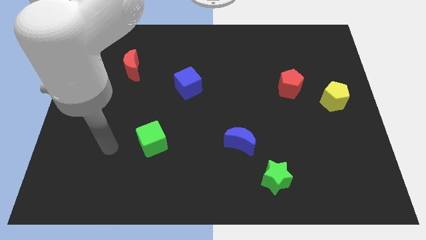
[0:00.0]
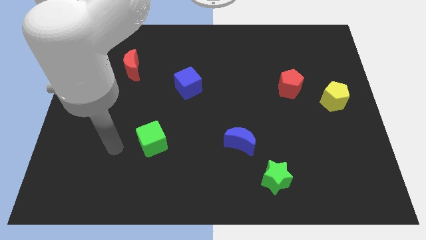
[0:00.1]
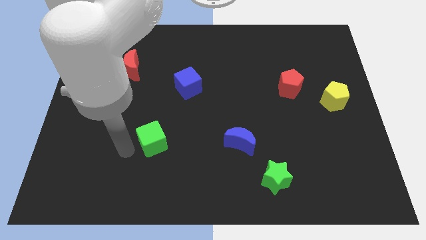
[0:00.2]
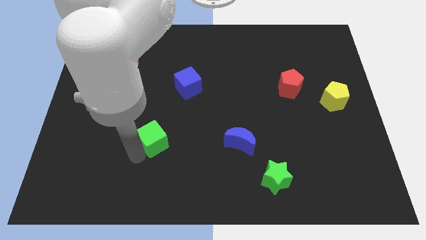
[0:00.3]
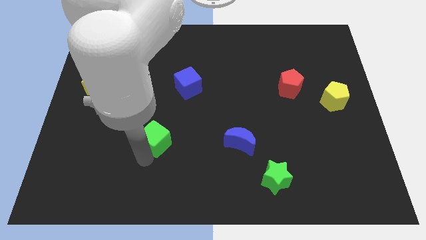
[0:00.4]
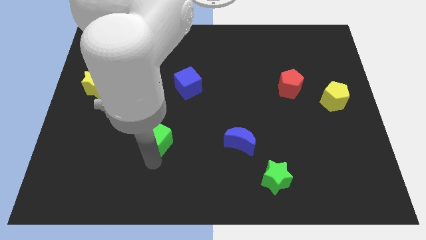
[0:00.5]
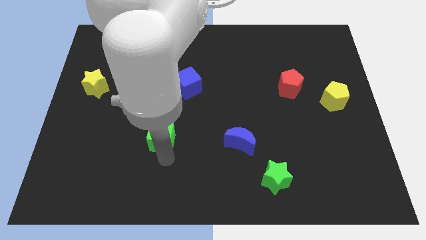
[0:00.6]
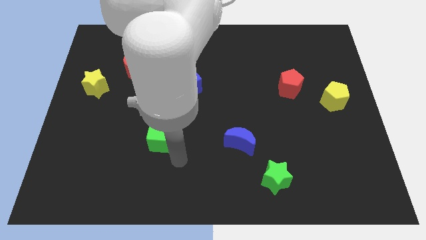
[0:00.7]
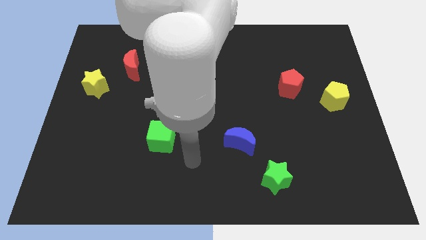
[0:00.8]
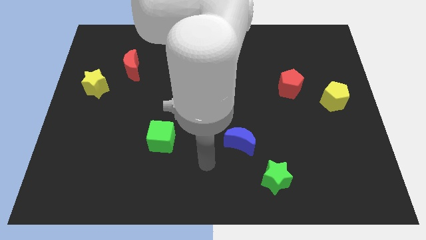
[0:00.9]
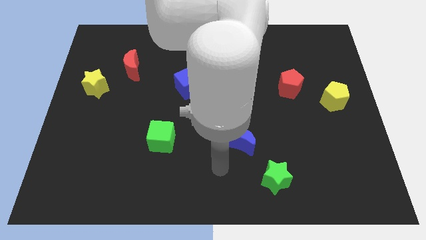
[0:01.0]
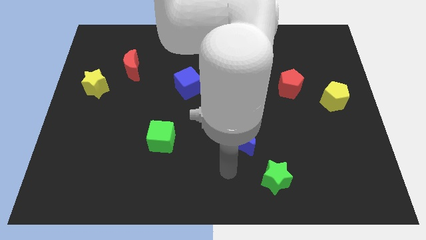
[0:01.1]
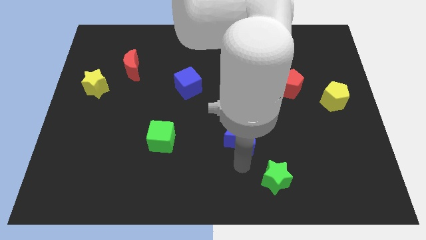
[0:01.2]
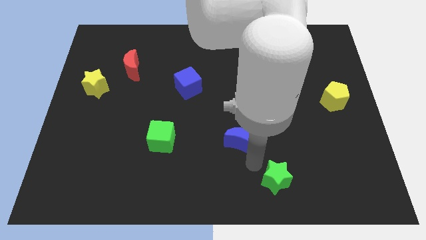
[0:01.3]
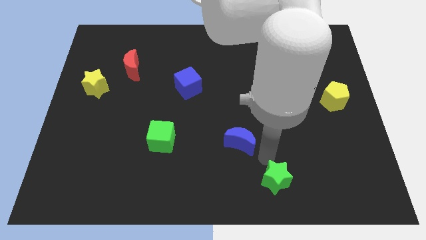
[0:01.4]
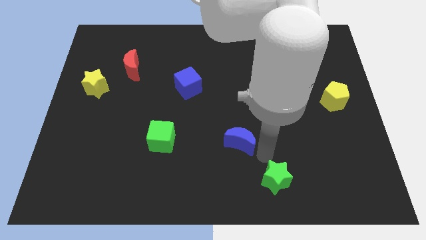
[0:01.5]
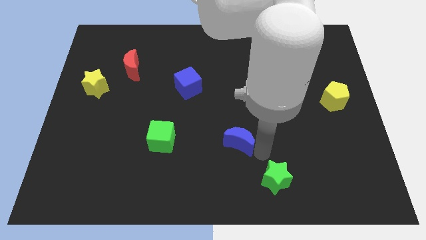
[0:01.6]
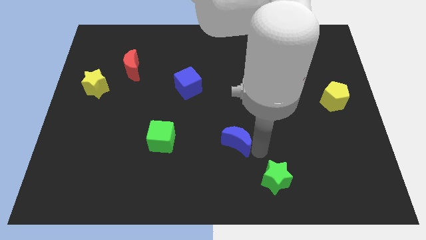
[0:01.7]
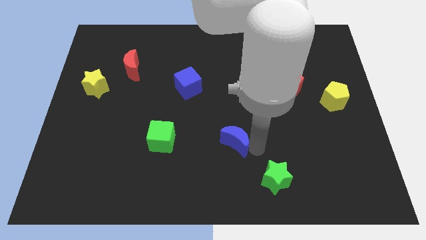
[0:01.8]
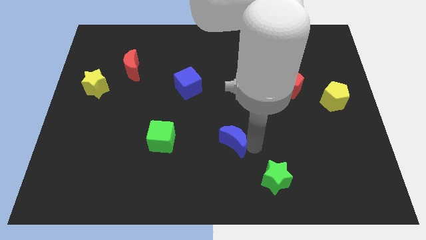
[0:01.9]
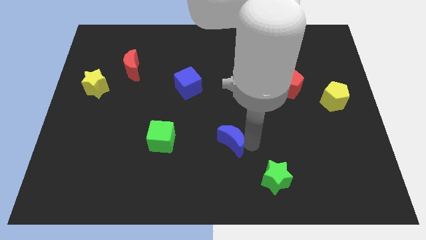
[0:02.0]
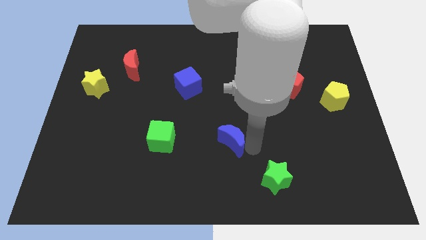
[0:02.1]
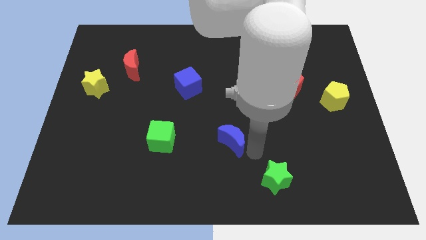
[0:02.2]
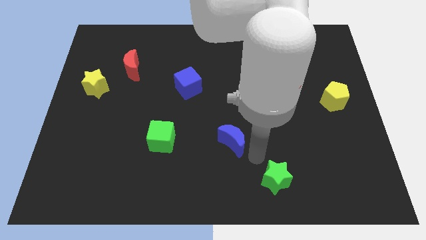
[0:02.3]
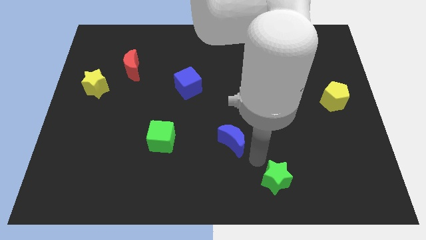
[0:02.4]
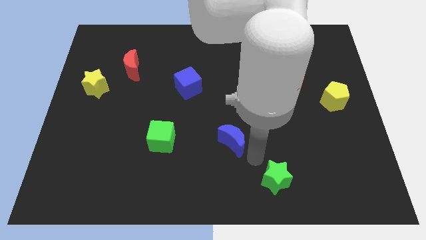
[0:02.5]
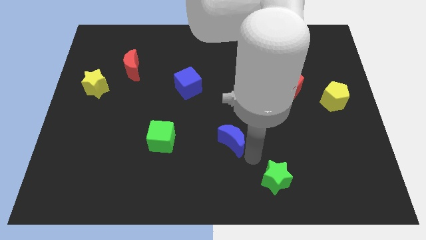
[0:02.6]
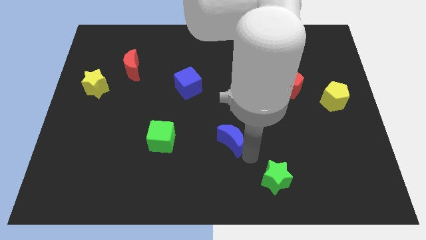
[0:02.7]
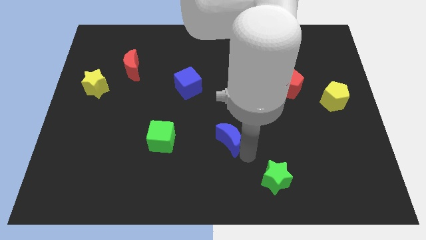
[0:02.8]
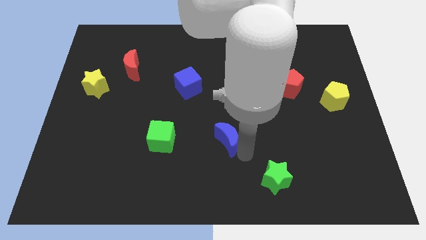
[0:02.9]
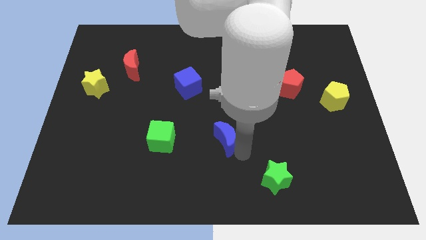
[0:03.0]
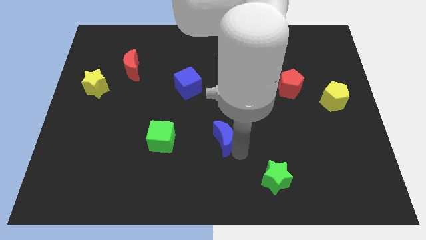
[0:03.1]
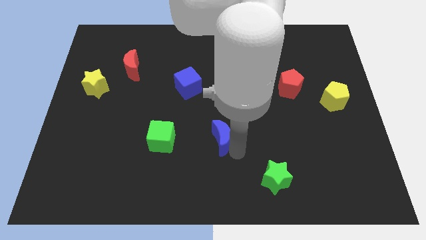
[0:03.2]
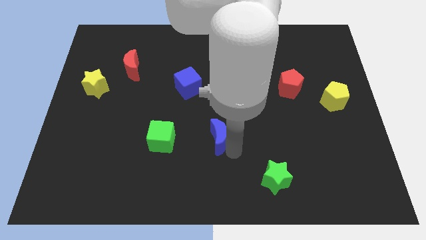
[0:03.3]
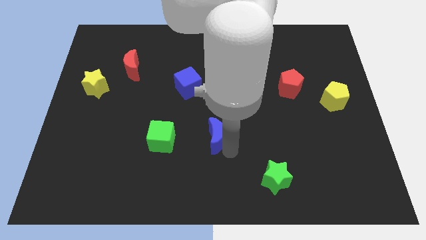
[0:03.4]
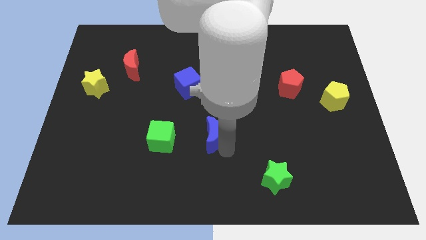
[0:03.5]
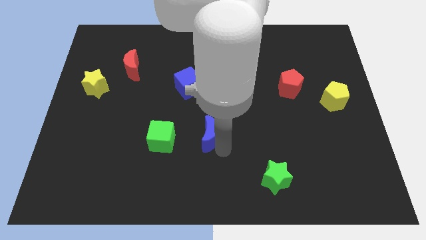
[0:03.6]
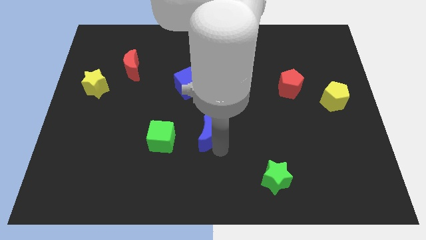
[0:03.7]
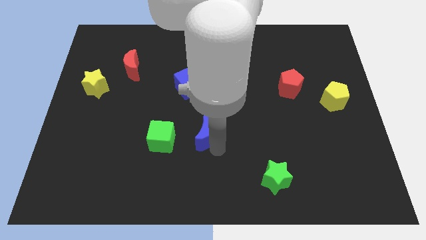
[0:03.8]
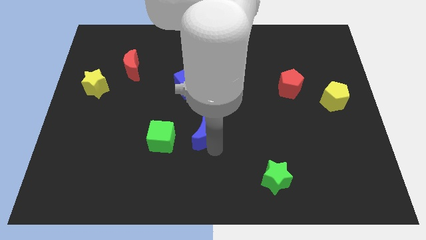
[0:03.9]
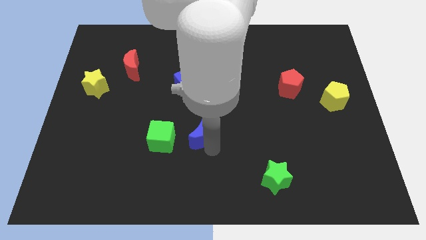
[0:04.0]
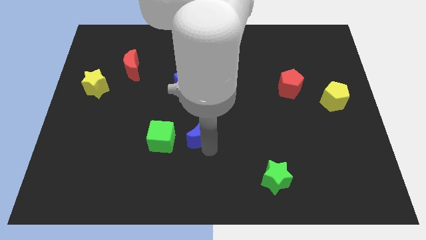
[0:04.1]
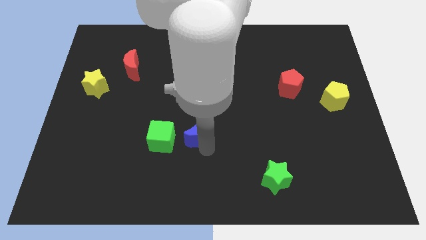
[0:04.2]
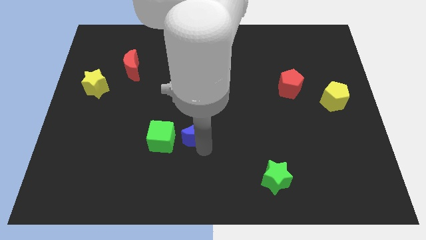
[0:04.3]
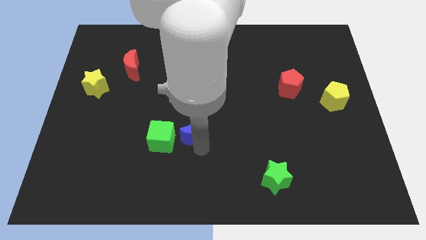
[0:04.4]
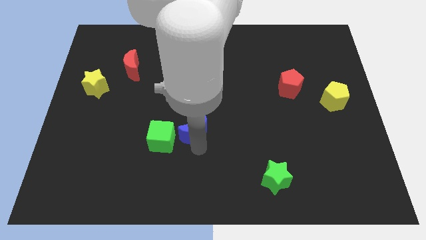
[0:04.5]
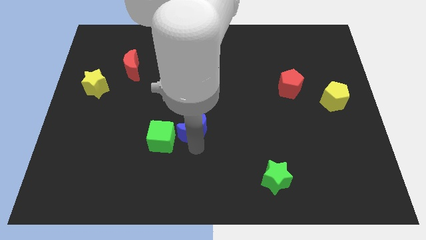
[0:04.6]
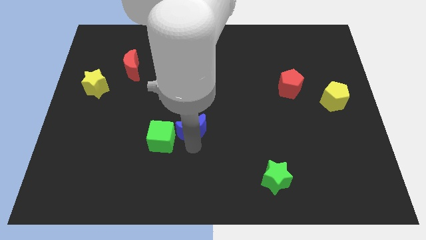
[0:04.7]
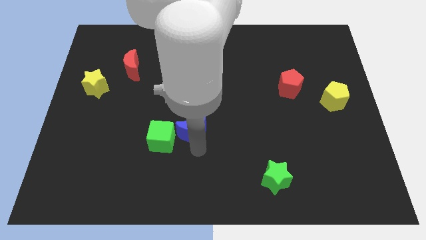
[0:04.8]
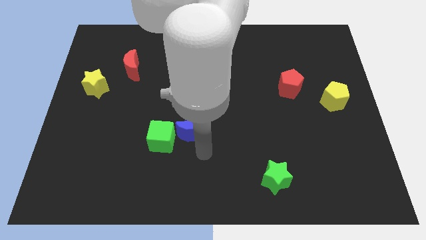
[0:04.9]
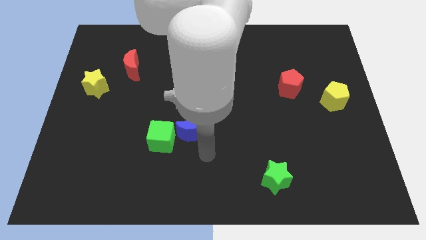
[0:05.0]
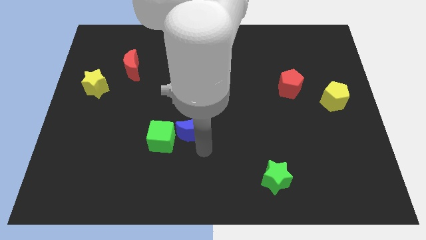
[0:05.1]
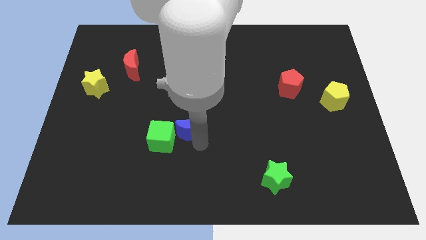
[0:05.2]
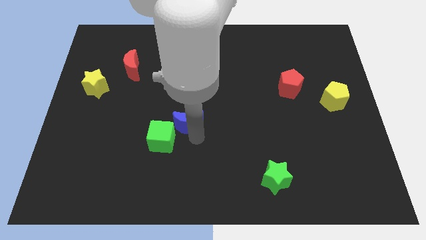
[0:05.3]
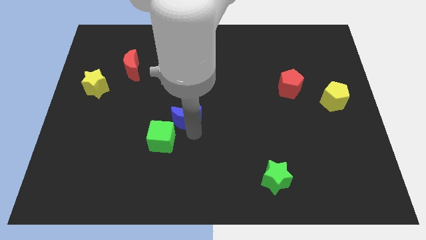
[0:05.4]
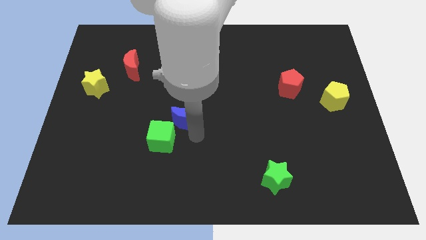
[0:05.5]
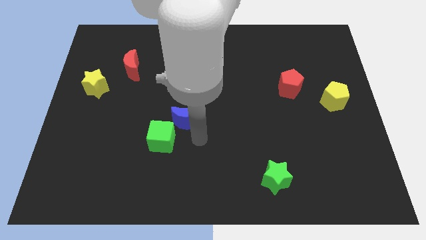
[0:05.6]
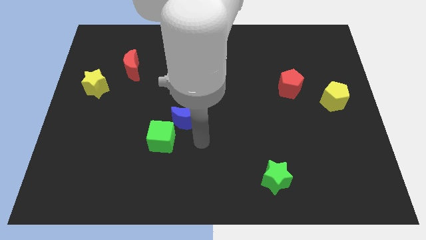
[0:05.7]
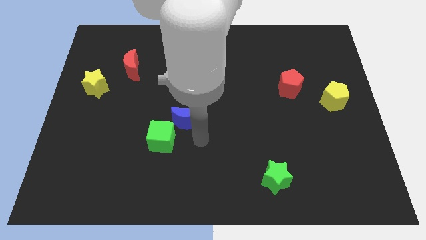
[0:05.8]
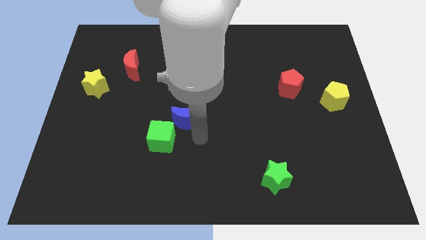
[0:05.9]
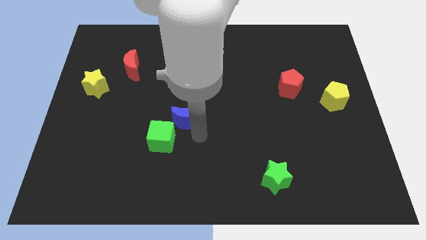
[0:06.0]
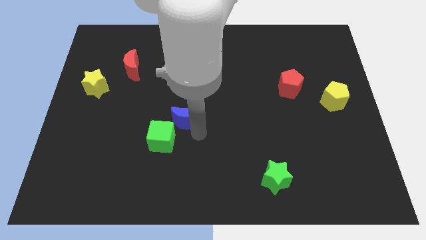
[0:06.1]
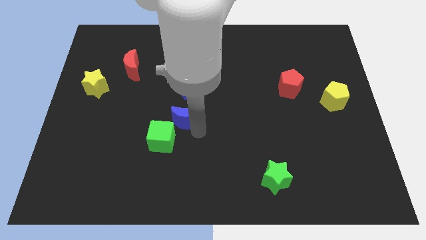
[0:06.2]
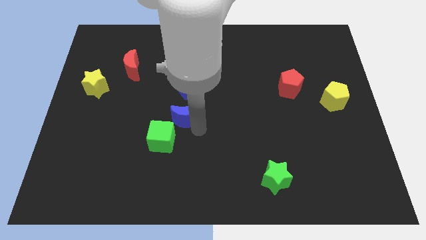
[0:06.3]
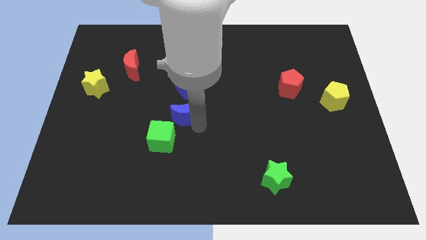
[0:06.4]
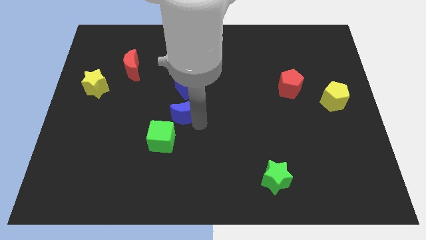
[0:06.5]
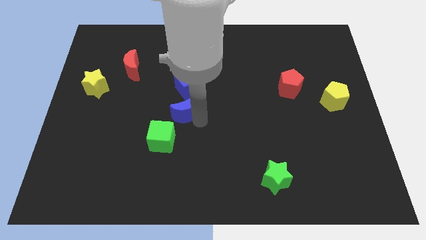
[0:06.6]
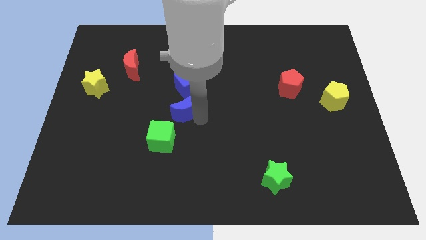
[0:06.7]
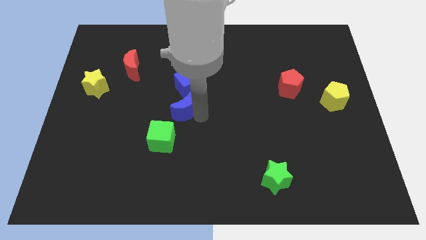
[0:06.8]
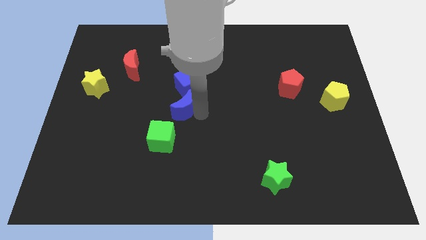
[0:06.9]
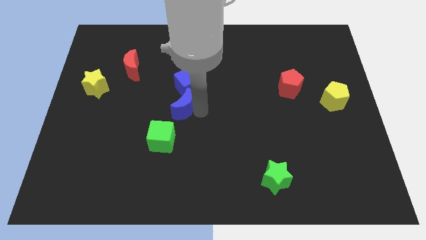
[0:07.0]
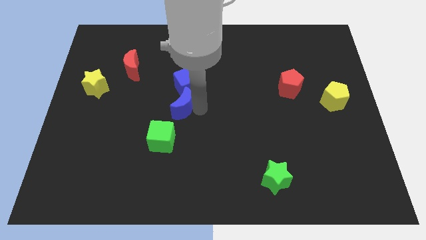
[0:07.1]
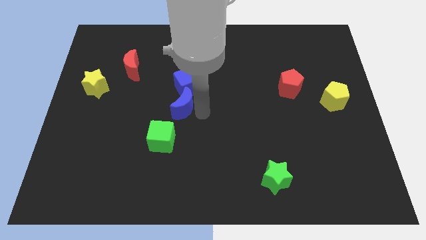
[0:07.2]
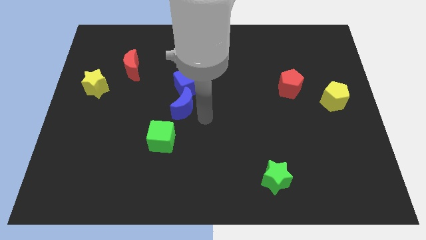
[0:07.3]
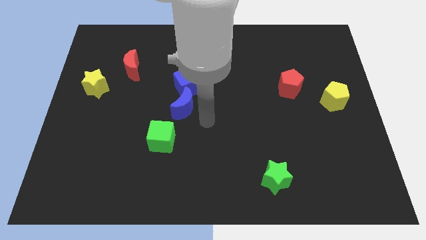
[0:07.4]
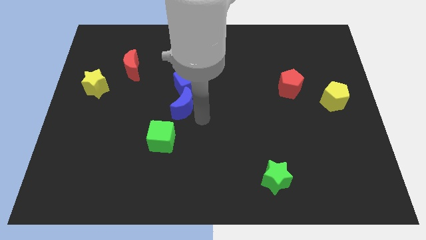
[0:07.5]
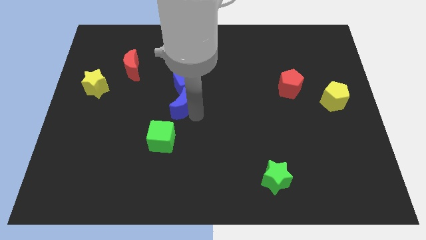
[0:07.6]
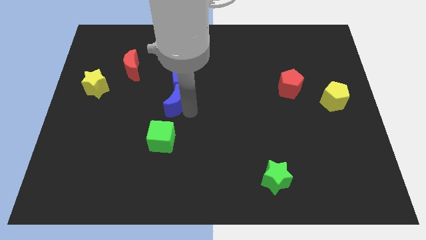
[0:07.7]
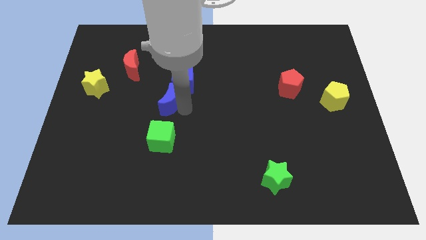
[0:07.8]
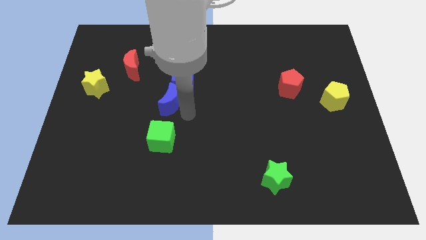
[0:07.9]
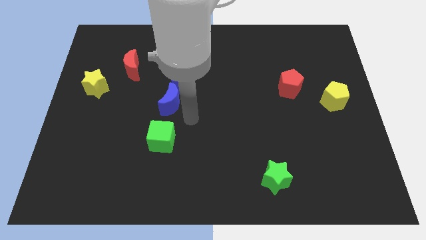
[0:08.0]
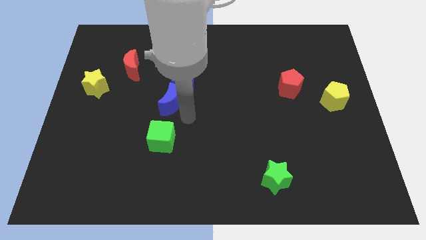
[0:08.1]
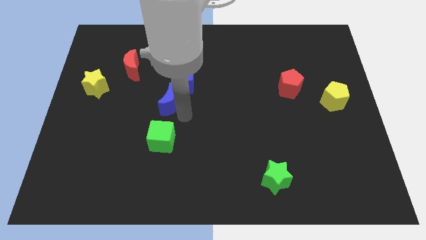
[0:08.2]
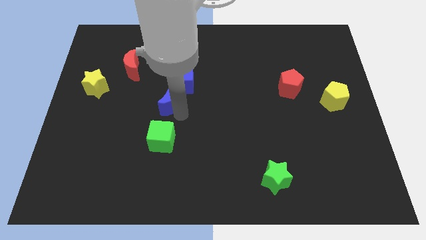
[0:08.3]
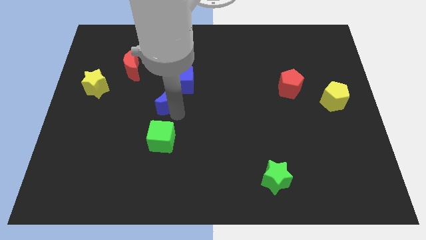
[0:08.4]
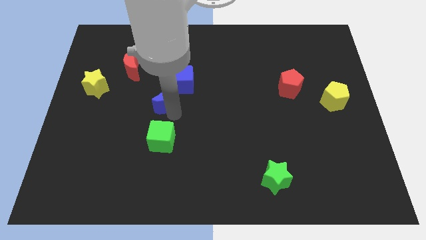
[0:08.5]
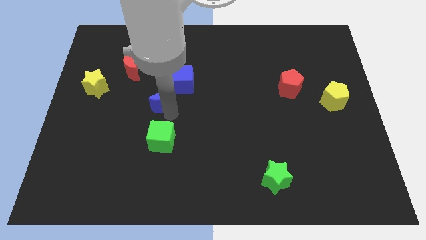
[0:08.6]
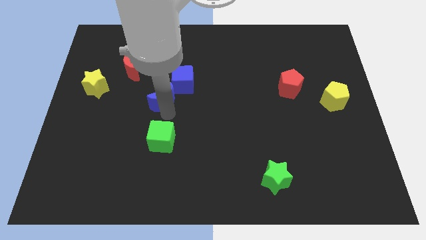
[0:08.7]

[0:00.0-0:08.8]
push the blue moon upwards and to the left diagonally
